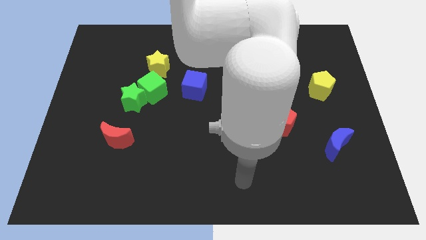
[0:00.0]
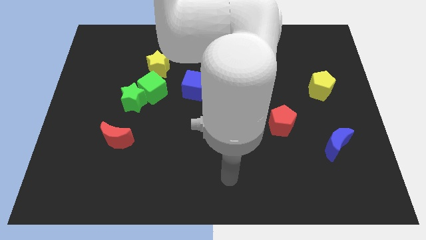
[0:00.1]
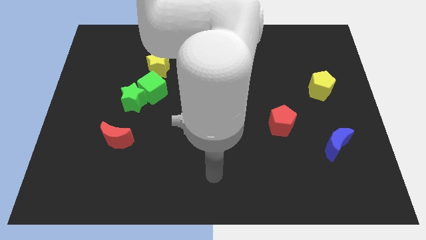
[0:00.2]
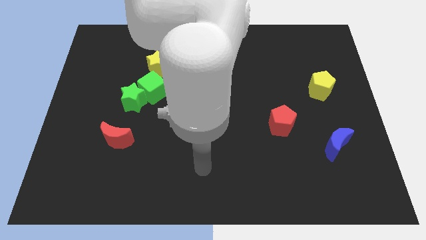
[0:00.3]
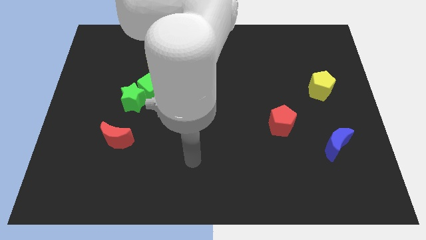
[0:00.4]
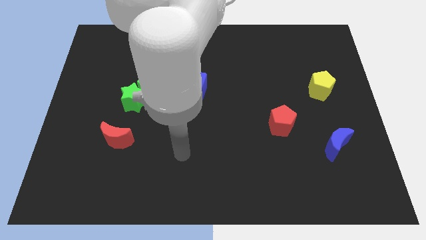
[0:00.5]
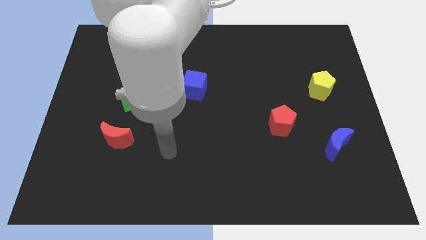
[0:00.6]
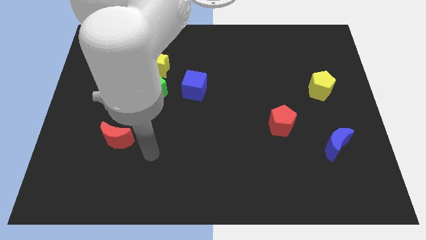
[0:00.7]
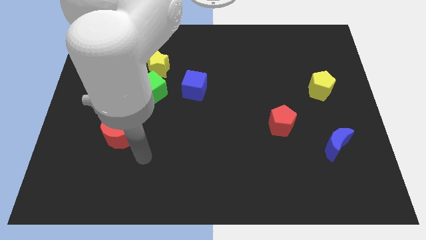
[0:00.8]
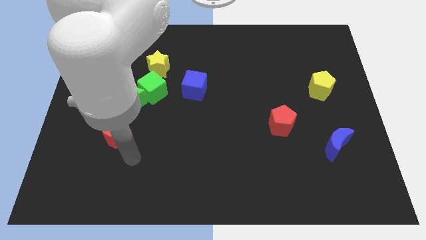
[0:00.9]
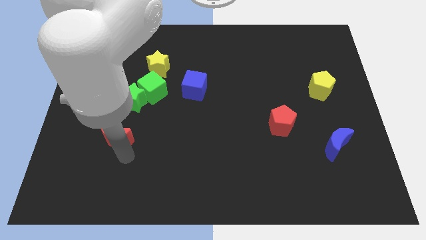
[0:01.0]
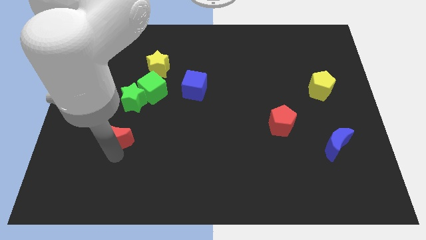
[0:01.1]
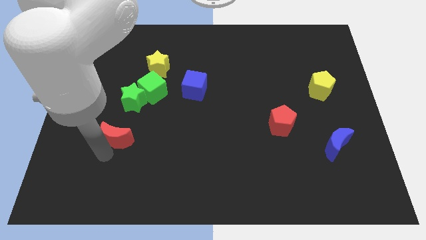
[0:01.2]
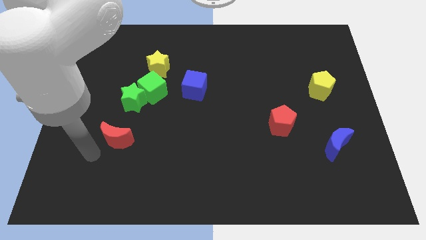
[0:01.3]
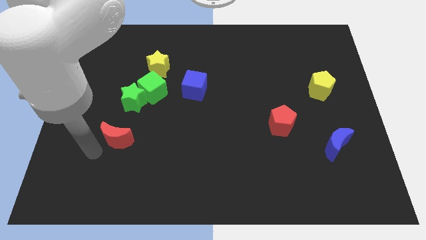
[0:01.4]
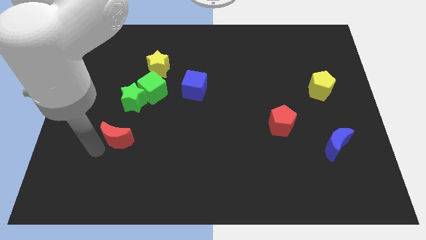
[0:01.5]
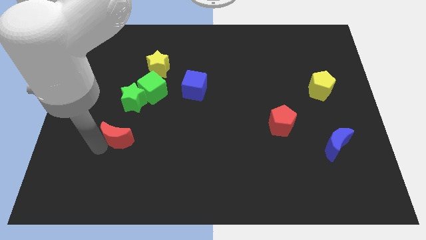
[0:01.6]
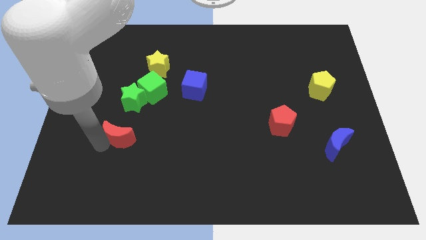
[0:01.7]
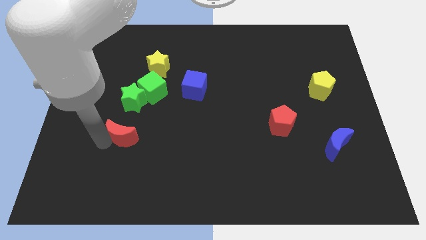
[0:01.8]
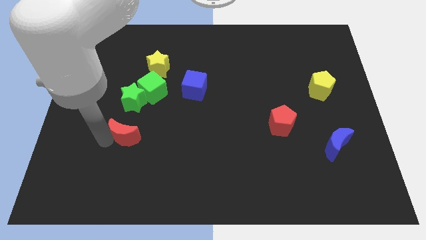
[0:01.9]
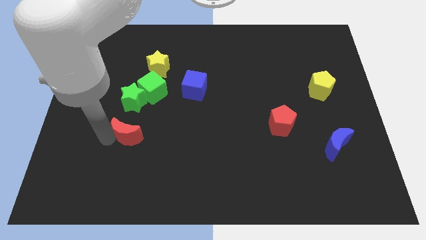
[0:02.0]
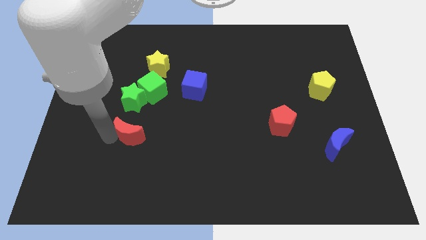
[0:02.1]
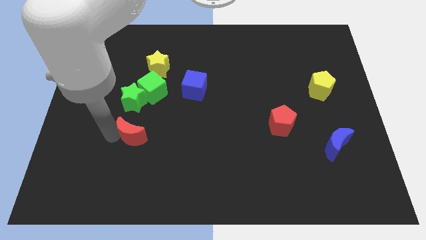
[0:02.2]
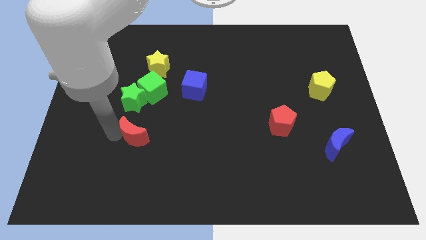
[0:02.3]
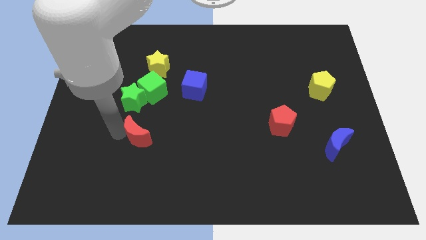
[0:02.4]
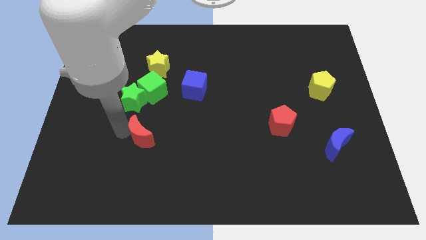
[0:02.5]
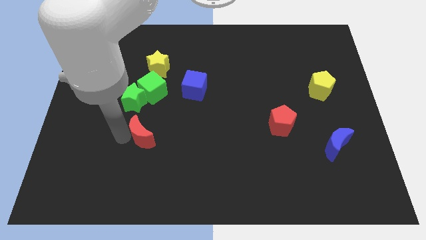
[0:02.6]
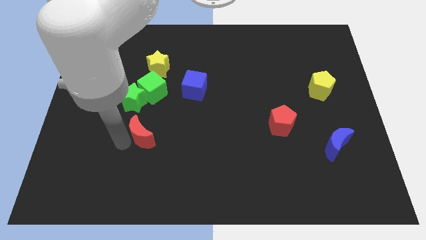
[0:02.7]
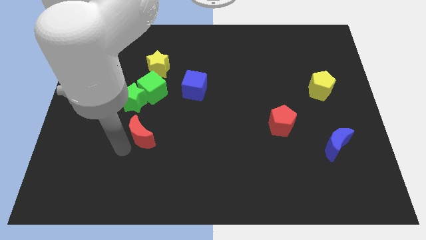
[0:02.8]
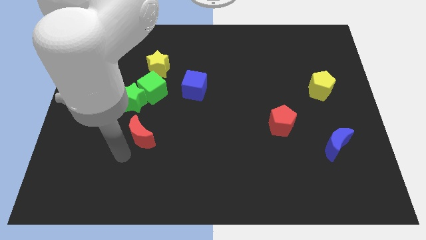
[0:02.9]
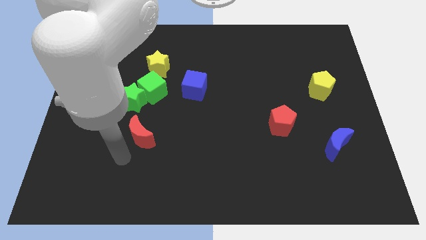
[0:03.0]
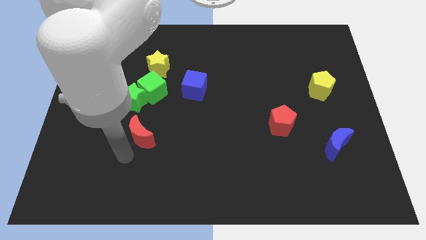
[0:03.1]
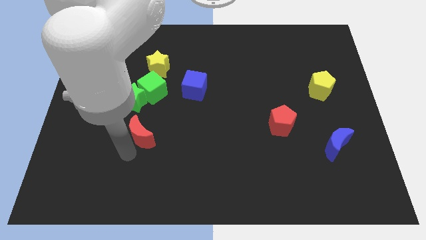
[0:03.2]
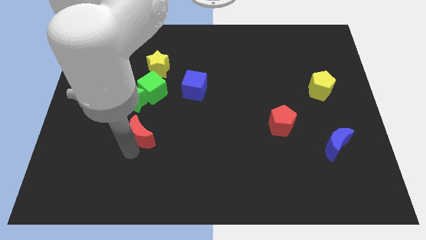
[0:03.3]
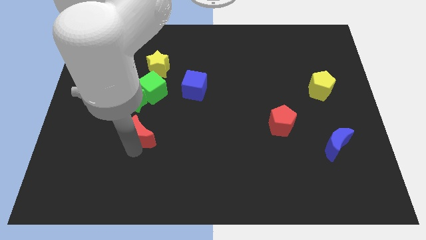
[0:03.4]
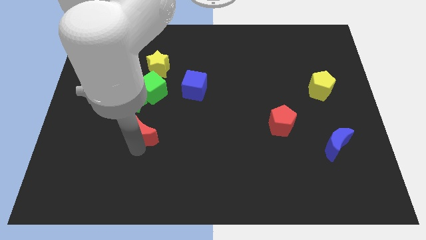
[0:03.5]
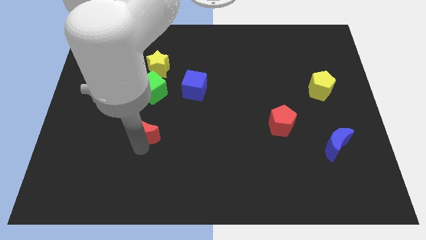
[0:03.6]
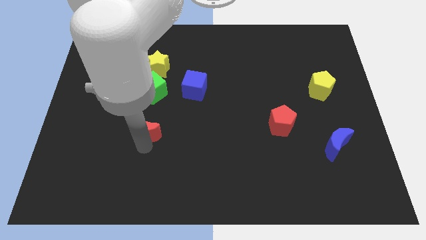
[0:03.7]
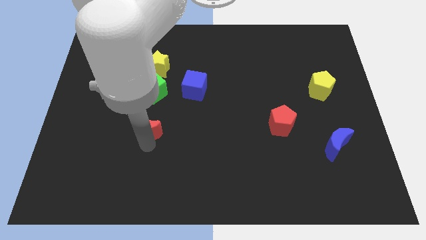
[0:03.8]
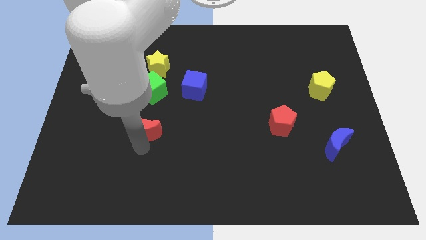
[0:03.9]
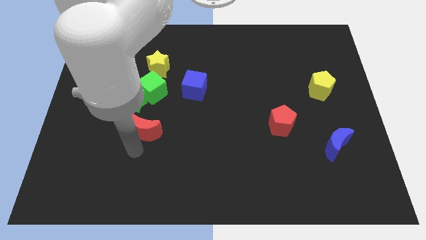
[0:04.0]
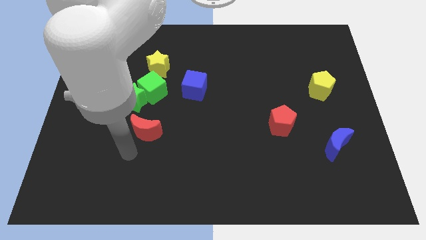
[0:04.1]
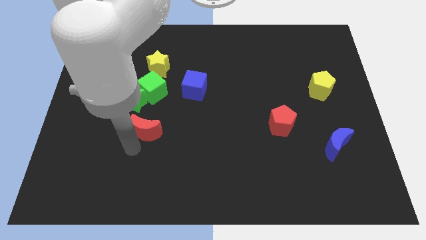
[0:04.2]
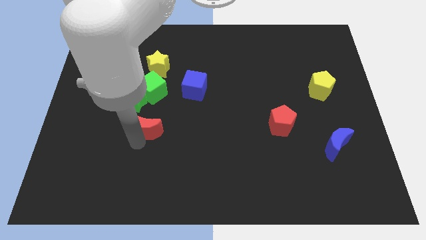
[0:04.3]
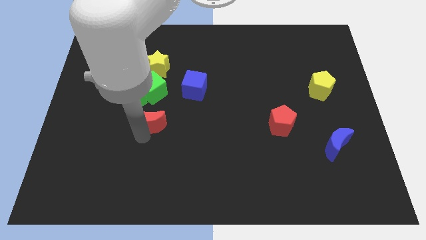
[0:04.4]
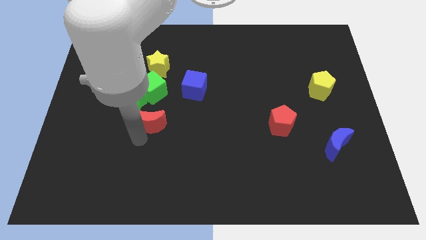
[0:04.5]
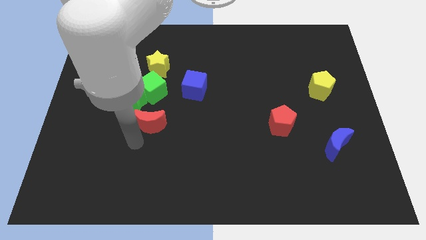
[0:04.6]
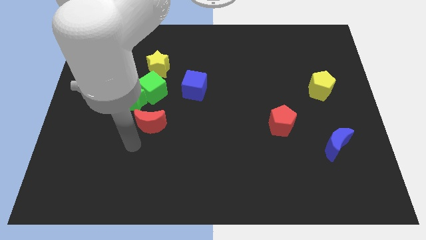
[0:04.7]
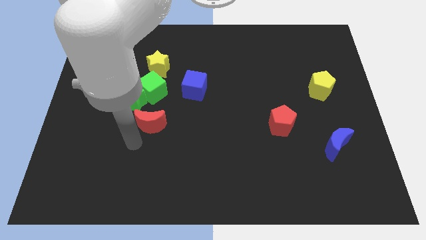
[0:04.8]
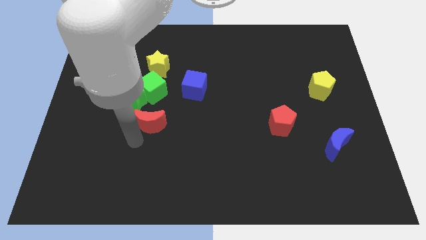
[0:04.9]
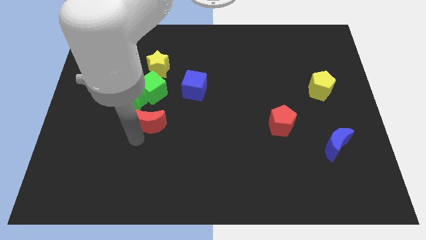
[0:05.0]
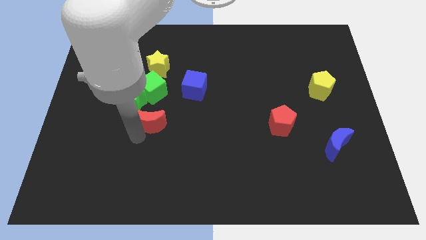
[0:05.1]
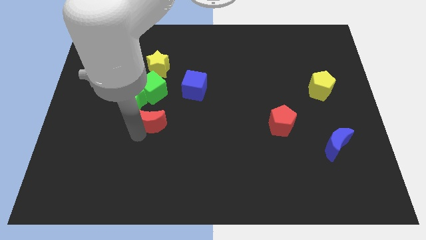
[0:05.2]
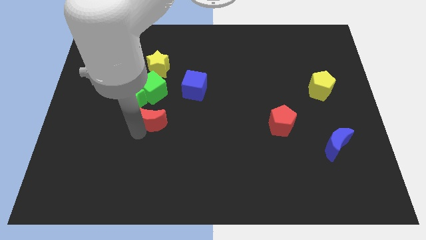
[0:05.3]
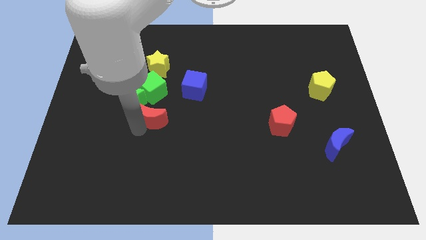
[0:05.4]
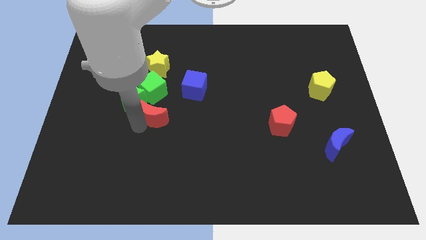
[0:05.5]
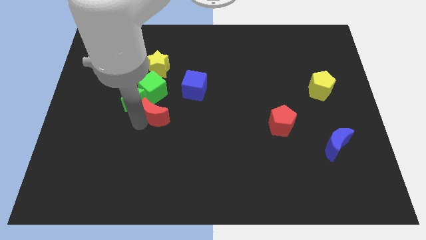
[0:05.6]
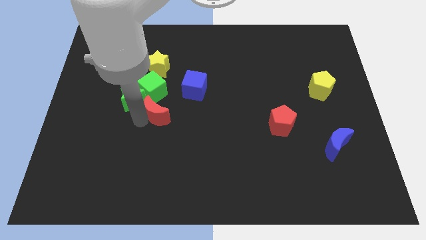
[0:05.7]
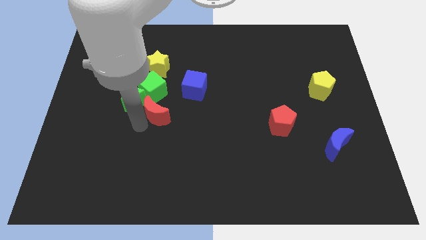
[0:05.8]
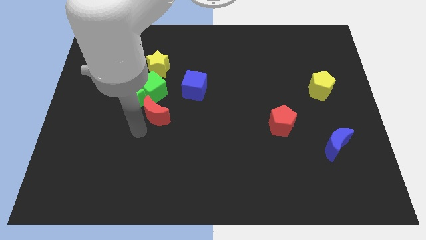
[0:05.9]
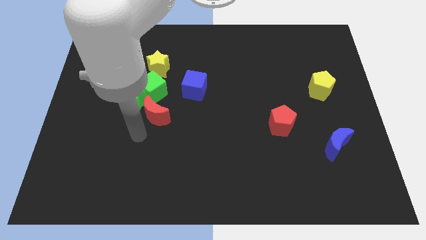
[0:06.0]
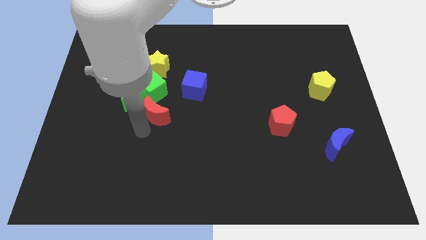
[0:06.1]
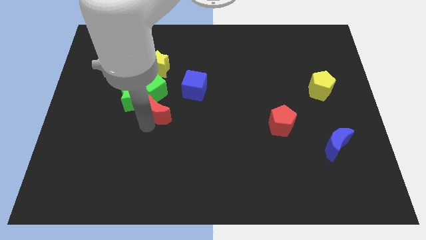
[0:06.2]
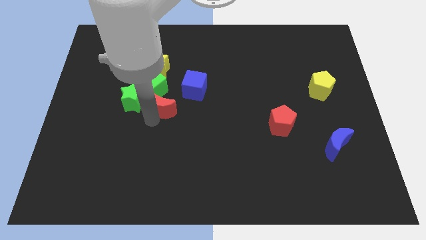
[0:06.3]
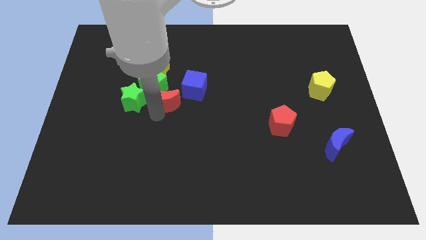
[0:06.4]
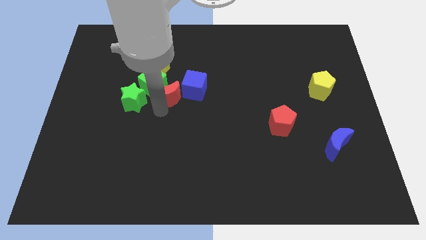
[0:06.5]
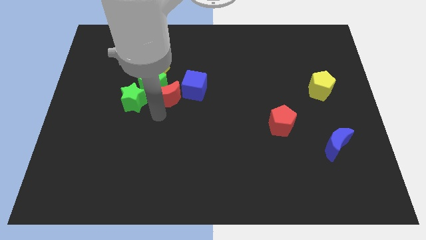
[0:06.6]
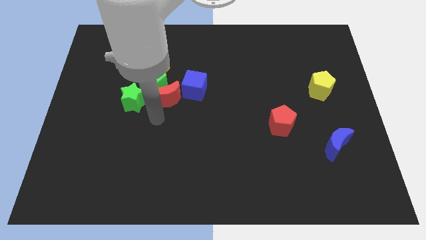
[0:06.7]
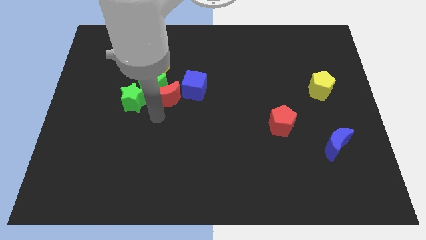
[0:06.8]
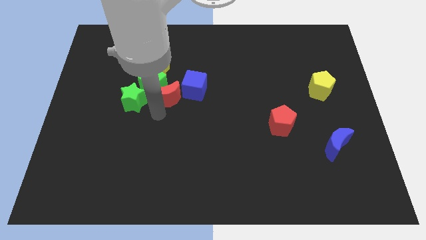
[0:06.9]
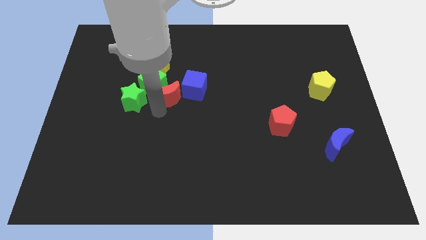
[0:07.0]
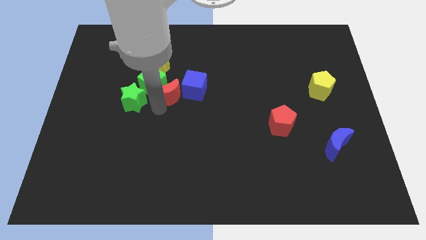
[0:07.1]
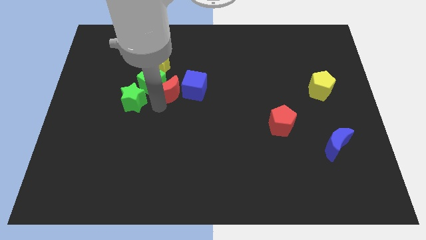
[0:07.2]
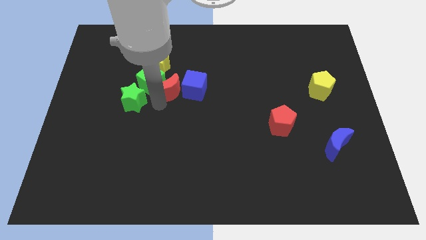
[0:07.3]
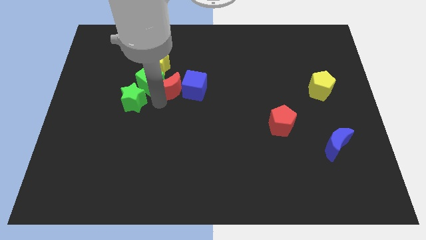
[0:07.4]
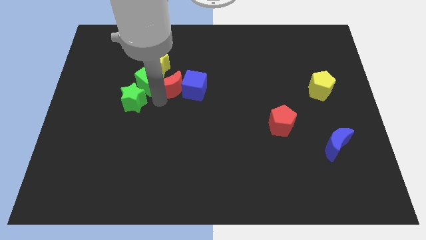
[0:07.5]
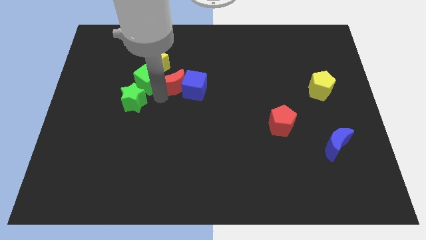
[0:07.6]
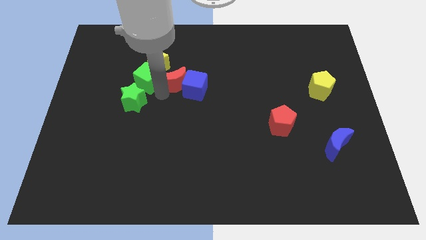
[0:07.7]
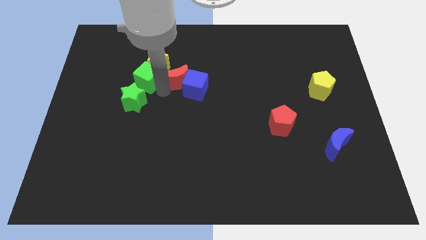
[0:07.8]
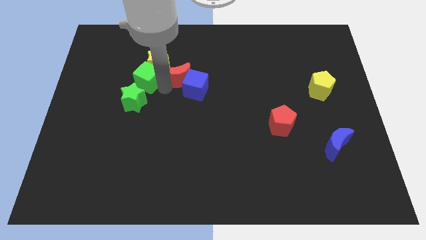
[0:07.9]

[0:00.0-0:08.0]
slide the red moon just right of the yellow star
